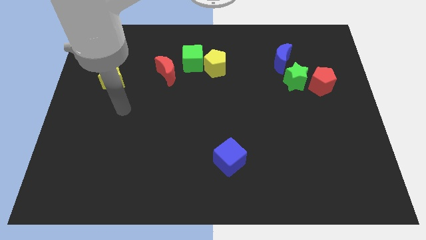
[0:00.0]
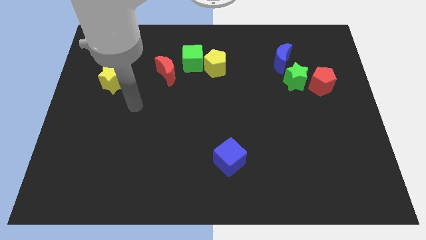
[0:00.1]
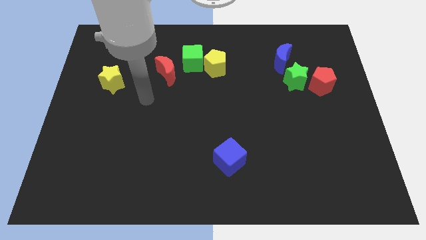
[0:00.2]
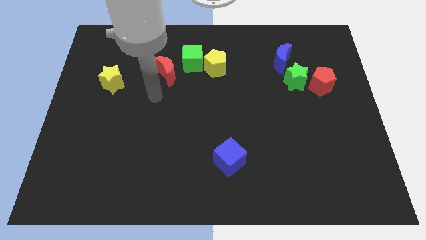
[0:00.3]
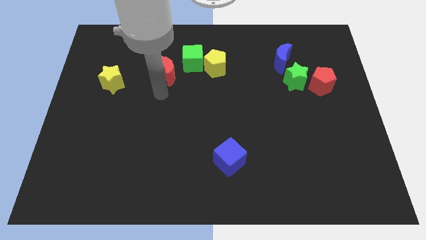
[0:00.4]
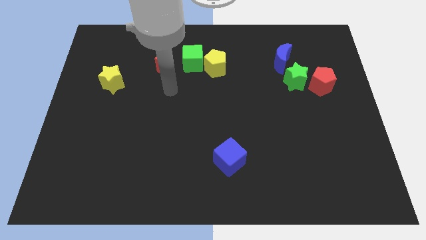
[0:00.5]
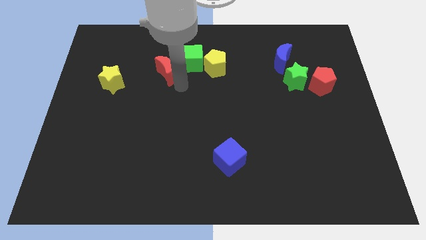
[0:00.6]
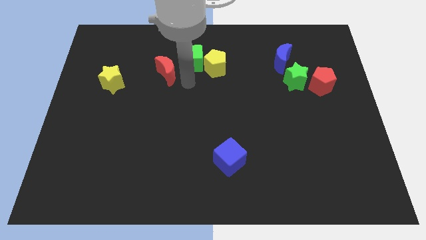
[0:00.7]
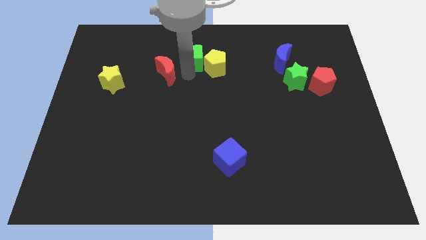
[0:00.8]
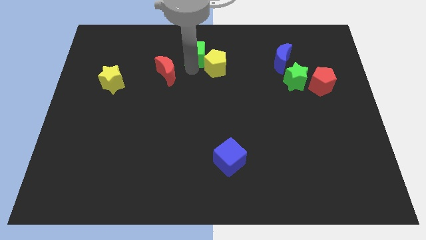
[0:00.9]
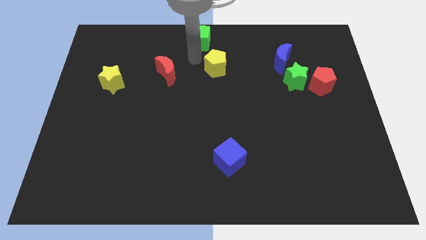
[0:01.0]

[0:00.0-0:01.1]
pull the yellow pentagon apart from the green cube

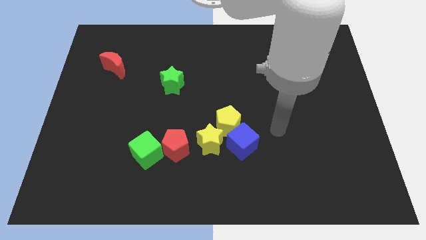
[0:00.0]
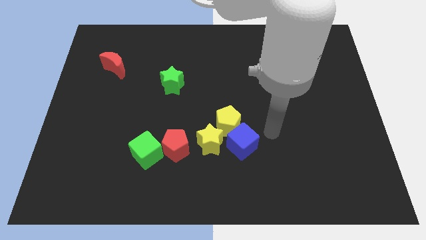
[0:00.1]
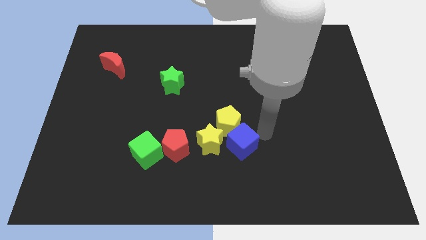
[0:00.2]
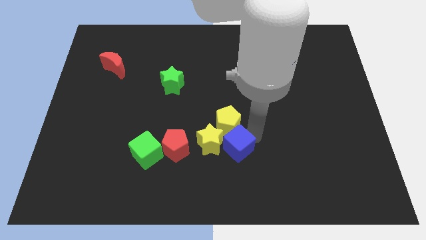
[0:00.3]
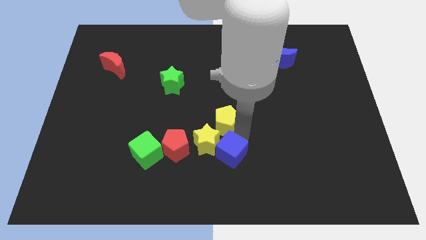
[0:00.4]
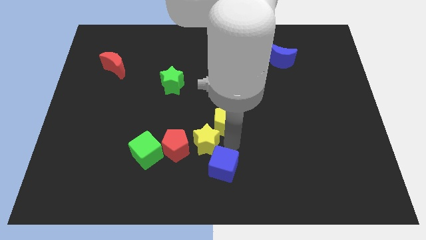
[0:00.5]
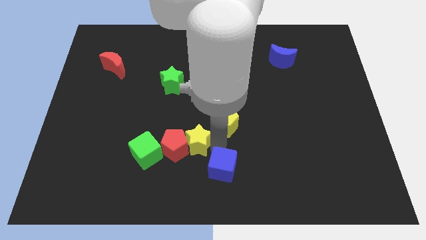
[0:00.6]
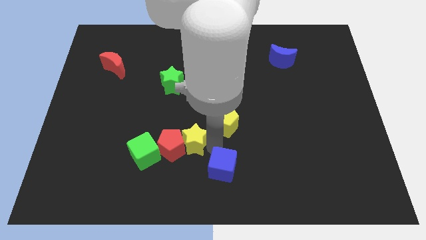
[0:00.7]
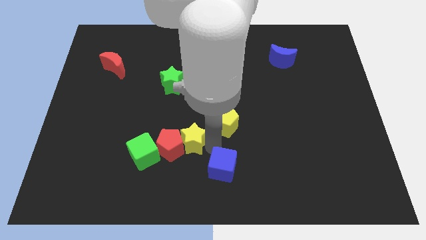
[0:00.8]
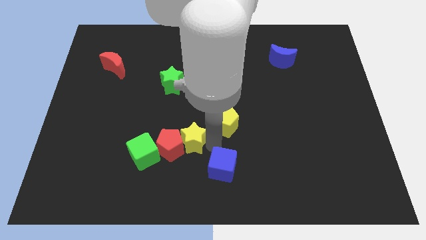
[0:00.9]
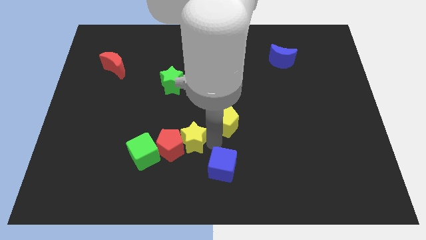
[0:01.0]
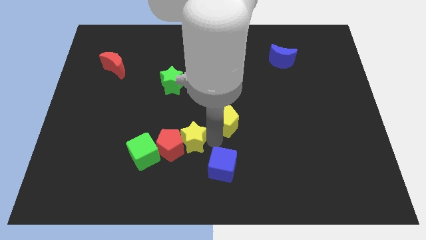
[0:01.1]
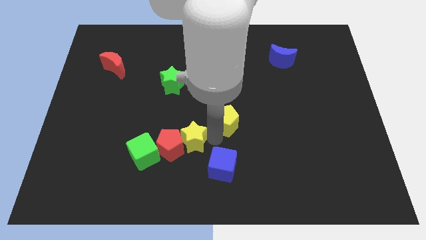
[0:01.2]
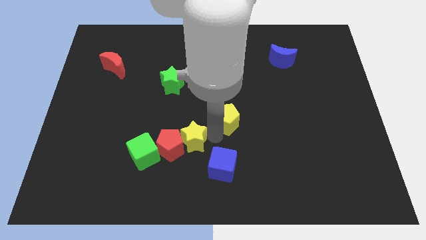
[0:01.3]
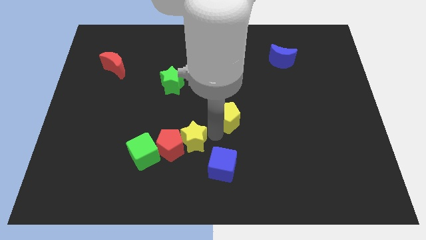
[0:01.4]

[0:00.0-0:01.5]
move the yellow pentagon away from the blue cube and yellow star

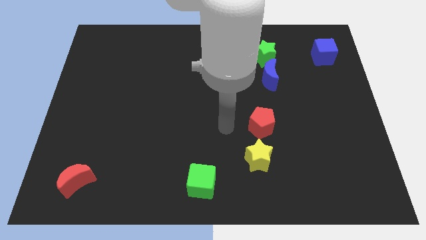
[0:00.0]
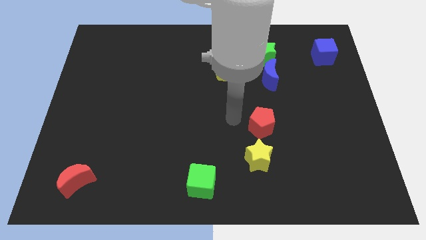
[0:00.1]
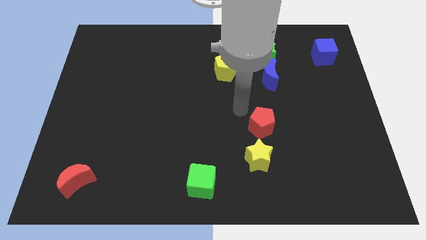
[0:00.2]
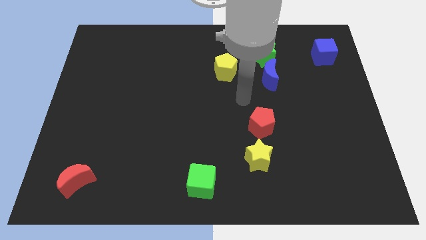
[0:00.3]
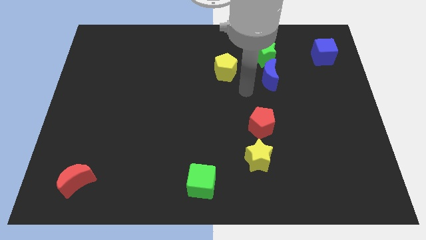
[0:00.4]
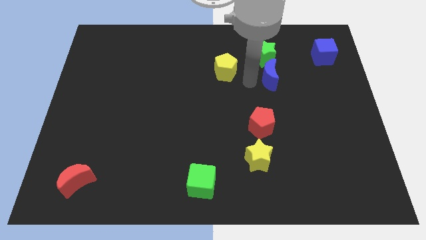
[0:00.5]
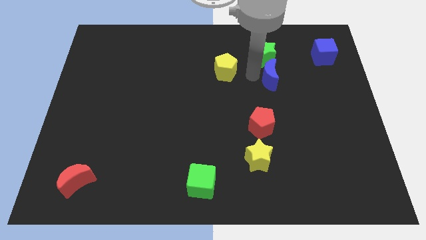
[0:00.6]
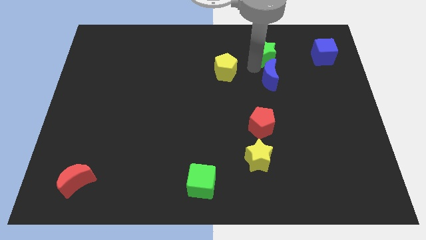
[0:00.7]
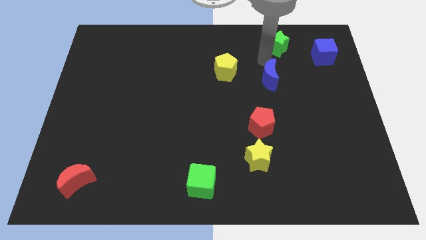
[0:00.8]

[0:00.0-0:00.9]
move the blue moon away from the green star

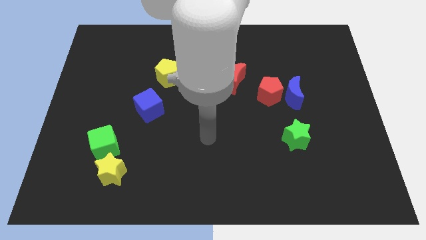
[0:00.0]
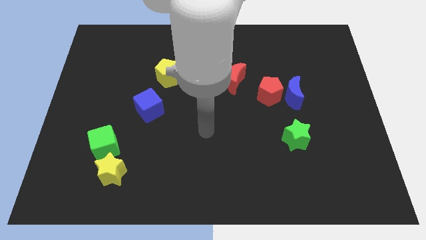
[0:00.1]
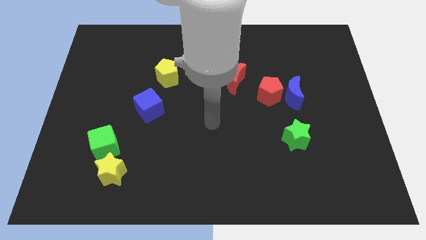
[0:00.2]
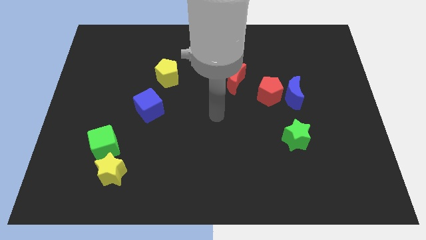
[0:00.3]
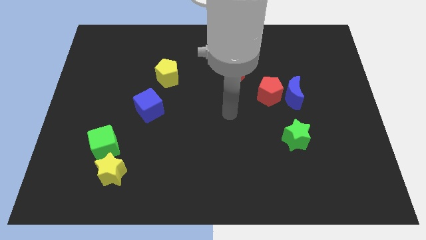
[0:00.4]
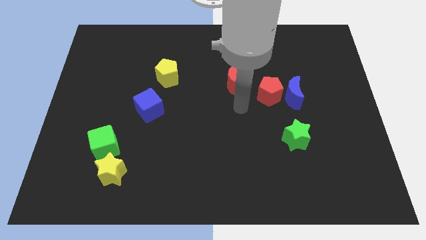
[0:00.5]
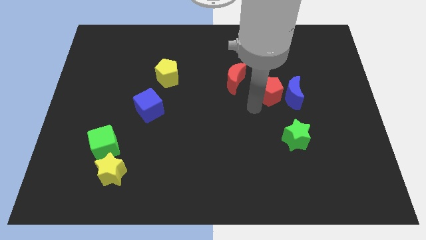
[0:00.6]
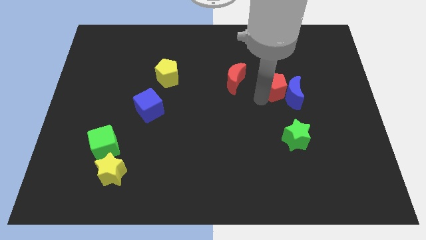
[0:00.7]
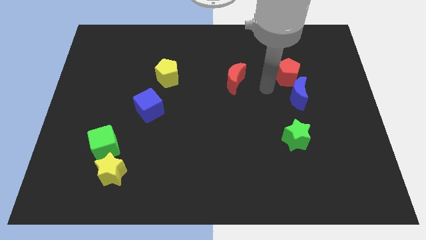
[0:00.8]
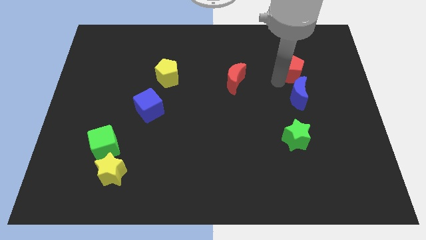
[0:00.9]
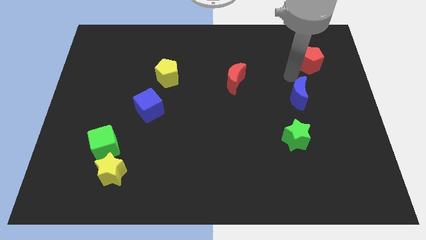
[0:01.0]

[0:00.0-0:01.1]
pull the blue moon apart from the red pentagon

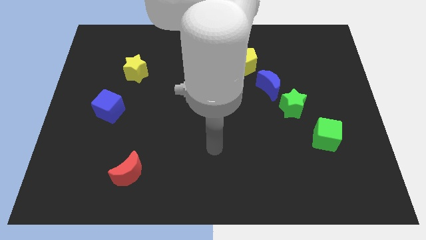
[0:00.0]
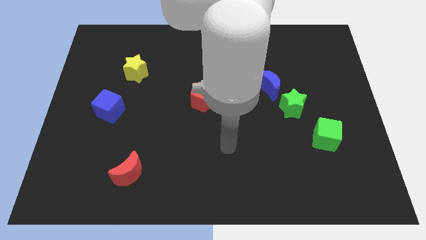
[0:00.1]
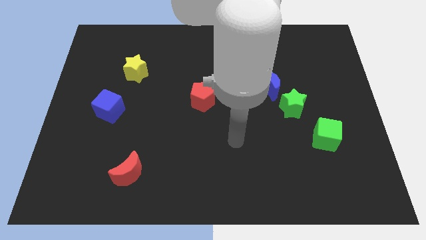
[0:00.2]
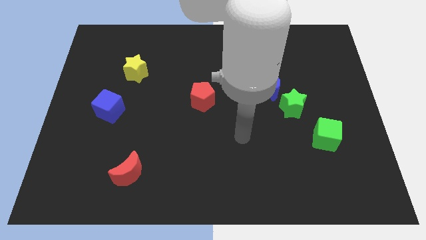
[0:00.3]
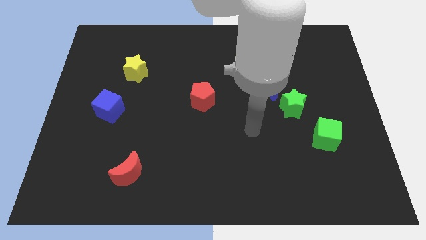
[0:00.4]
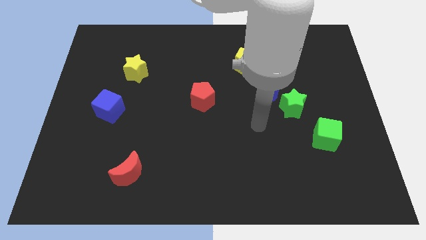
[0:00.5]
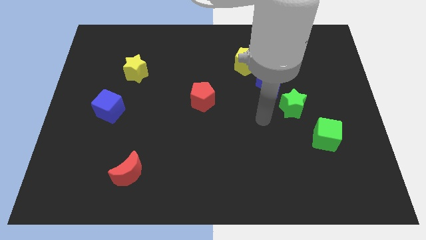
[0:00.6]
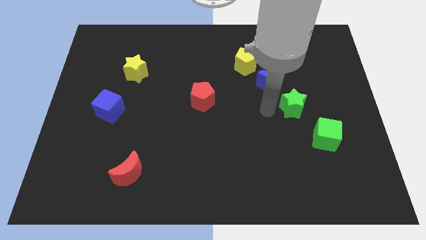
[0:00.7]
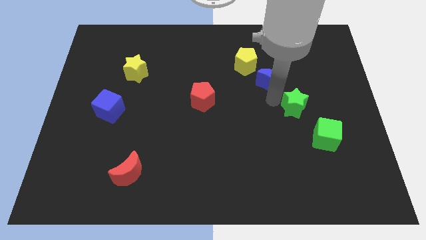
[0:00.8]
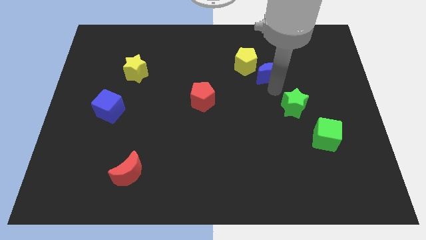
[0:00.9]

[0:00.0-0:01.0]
pull the green star apart from the blue moon

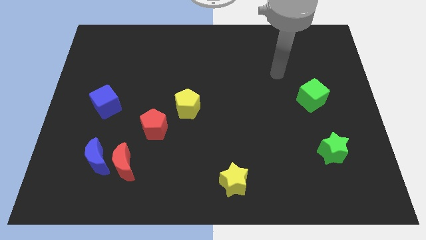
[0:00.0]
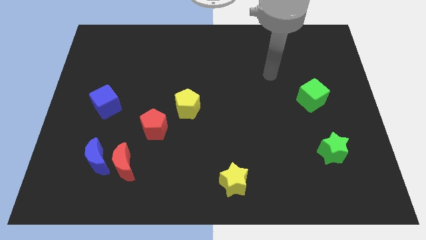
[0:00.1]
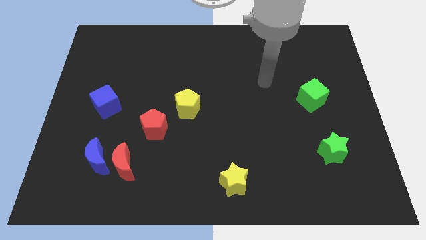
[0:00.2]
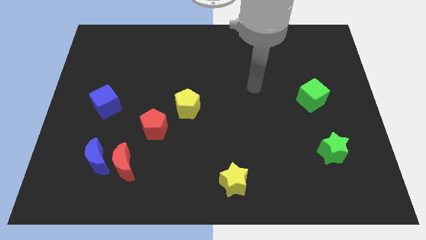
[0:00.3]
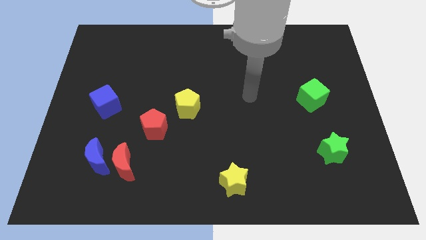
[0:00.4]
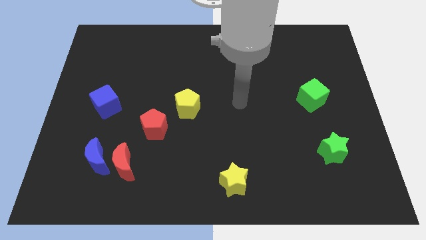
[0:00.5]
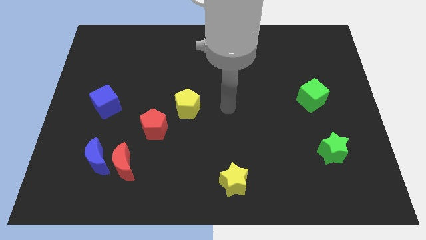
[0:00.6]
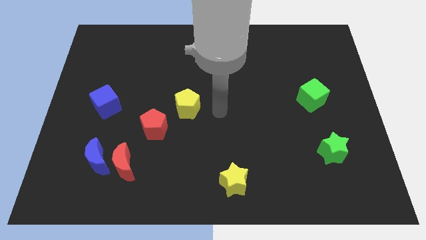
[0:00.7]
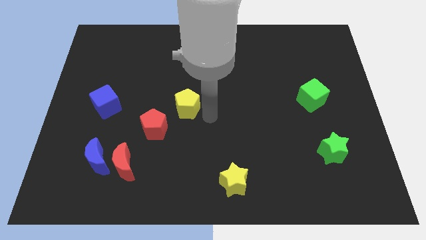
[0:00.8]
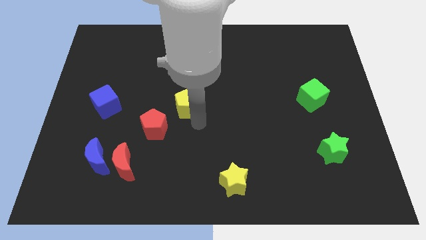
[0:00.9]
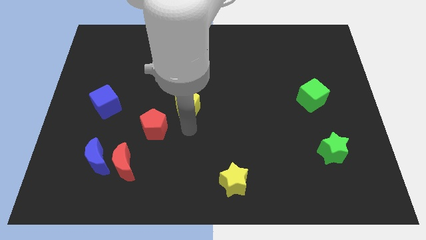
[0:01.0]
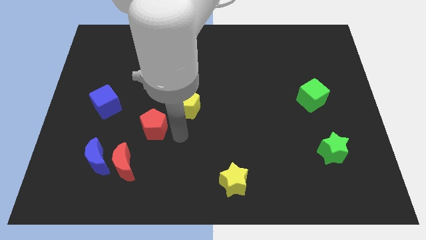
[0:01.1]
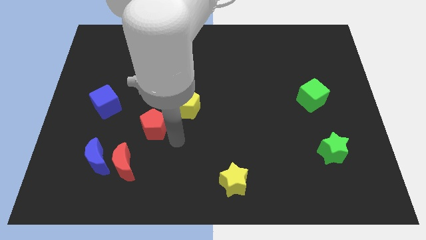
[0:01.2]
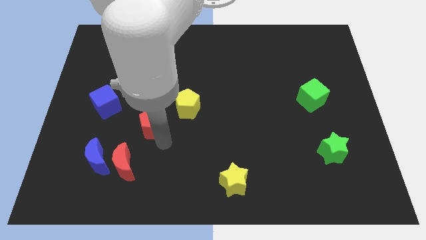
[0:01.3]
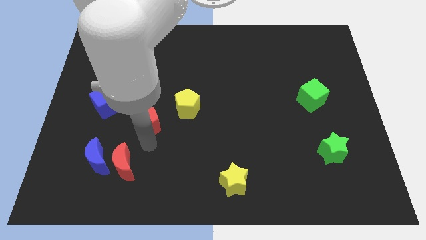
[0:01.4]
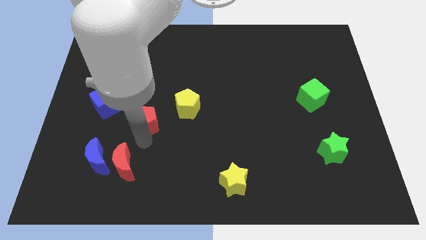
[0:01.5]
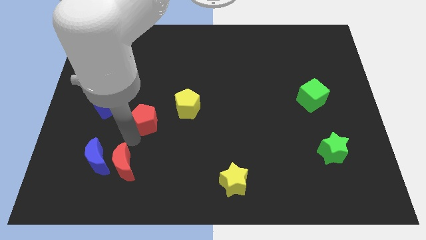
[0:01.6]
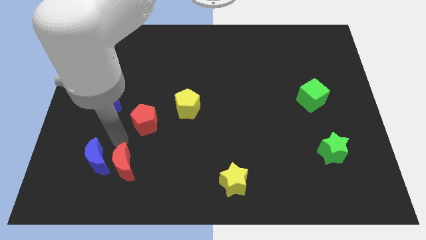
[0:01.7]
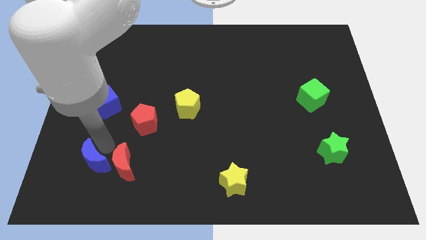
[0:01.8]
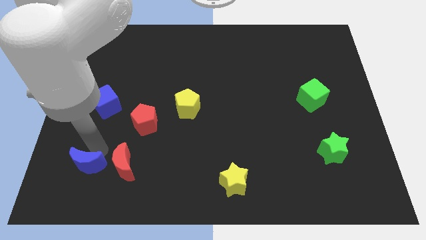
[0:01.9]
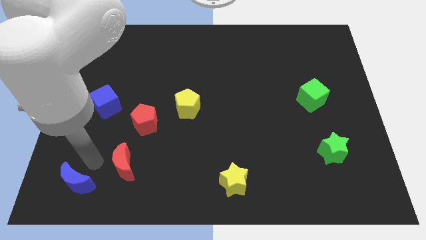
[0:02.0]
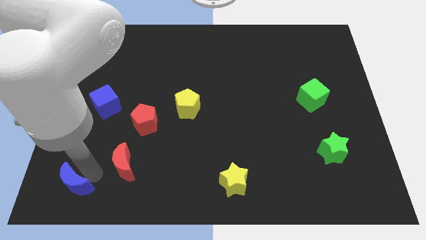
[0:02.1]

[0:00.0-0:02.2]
separate the red moon from the blue moon

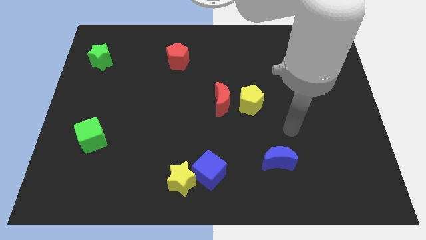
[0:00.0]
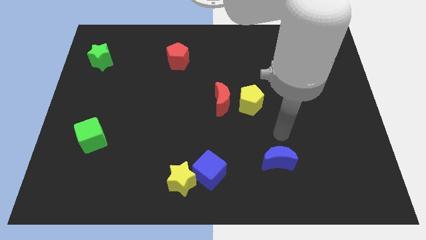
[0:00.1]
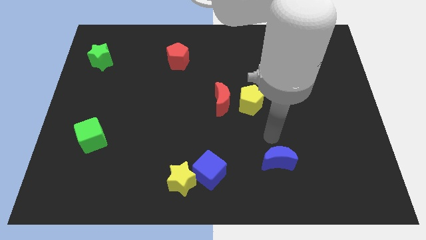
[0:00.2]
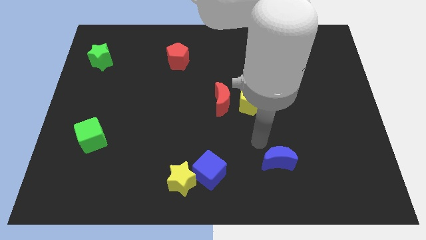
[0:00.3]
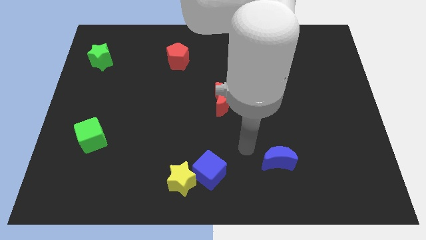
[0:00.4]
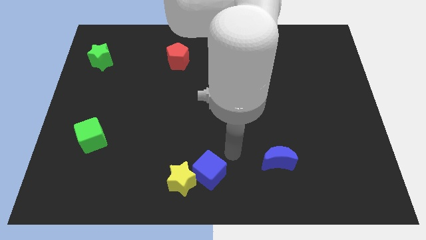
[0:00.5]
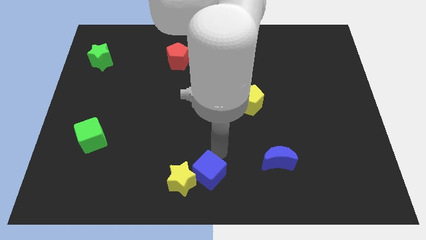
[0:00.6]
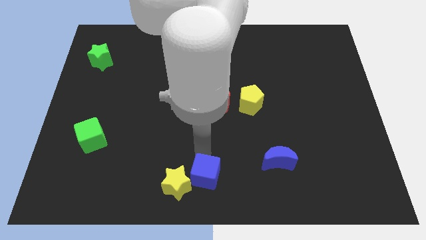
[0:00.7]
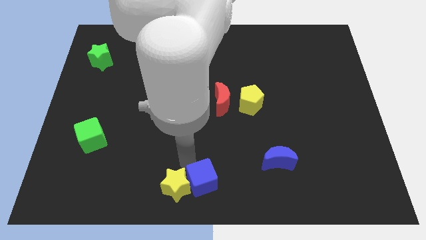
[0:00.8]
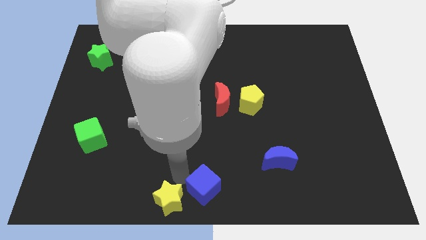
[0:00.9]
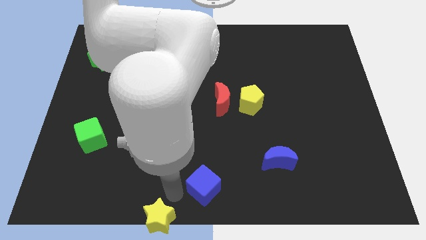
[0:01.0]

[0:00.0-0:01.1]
pull the blue cube apart from the yellow star

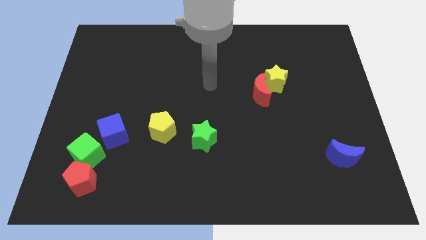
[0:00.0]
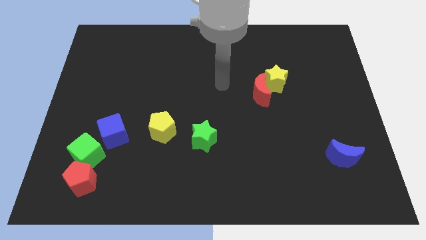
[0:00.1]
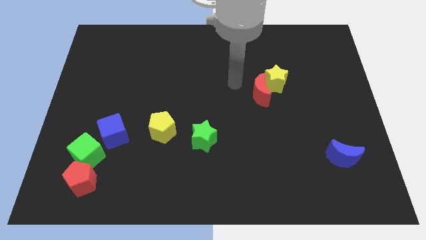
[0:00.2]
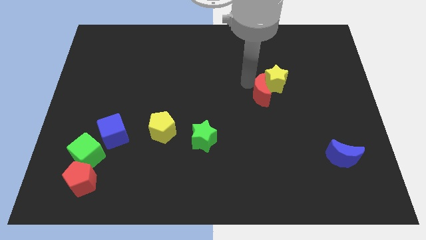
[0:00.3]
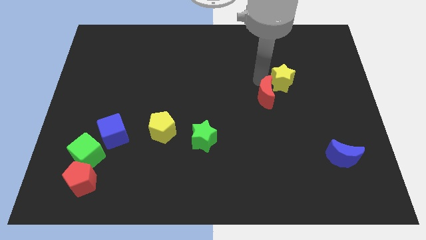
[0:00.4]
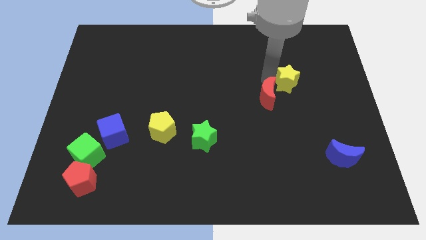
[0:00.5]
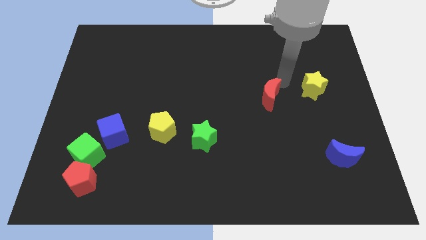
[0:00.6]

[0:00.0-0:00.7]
separate the red moon from the yellow star
